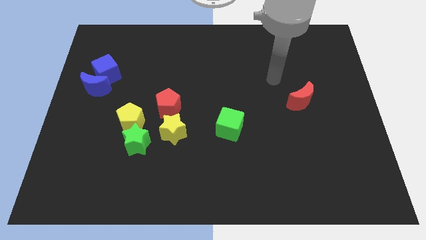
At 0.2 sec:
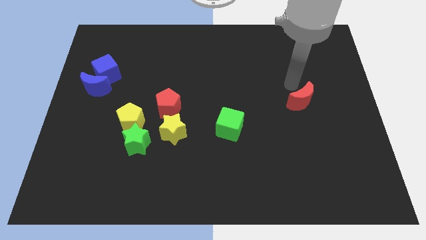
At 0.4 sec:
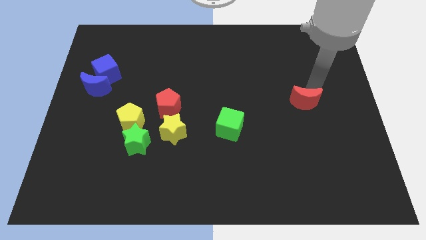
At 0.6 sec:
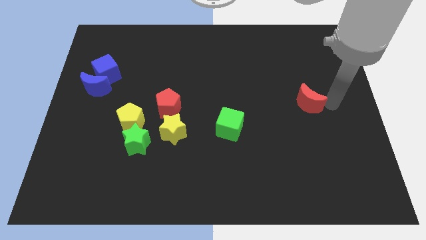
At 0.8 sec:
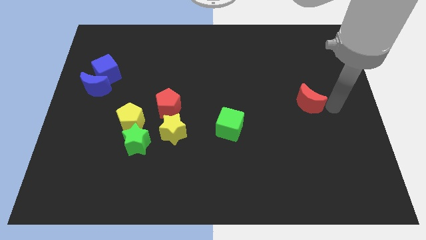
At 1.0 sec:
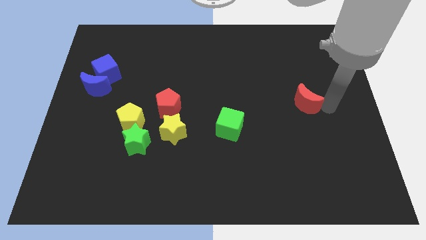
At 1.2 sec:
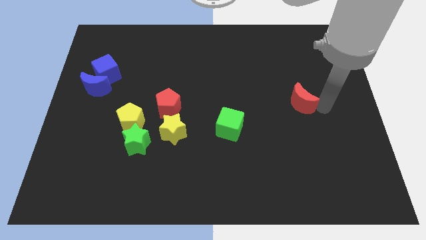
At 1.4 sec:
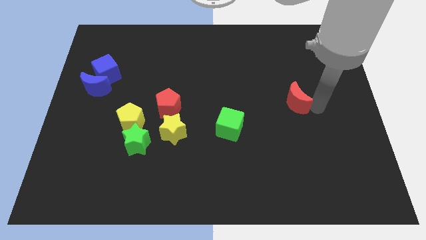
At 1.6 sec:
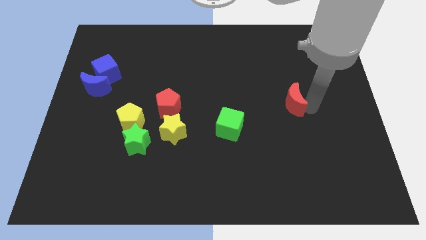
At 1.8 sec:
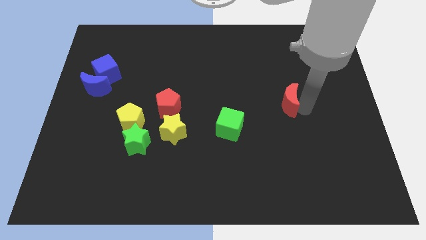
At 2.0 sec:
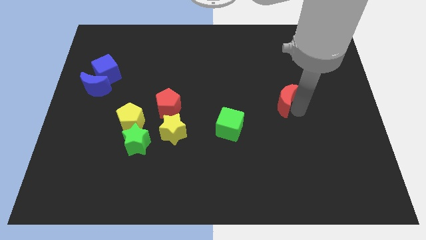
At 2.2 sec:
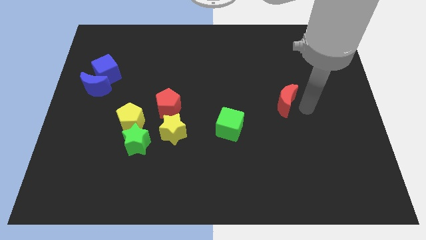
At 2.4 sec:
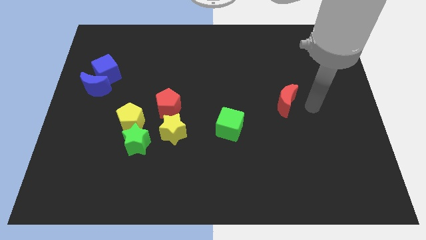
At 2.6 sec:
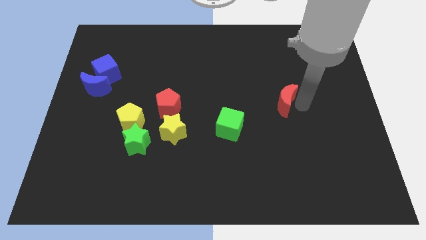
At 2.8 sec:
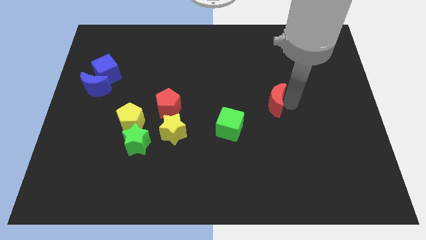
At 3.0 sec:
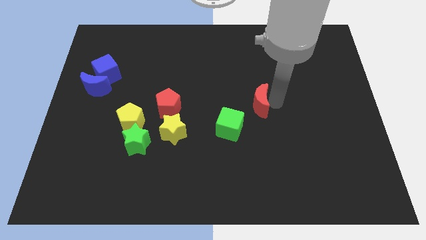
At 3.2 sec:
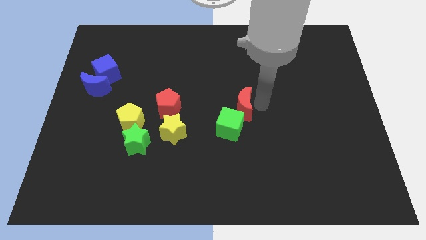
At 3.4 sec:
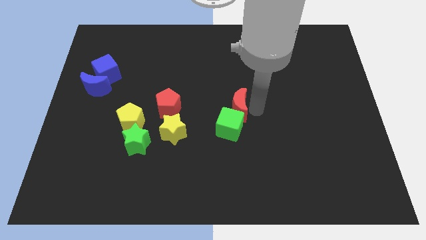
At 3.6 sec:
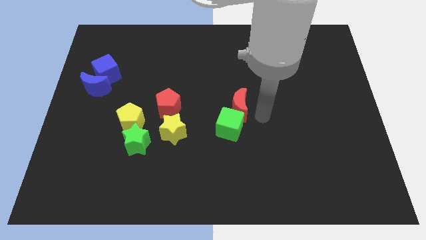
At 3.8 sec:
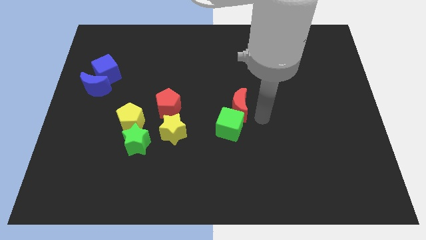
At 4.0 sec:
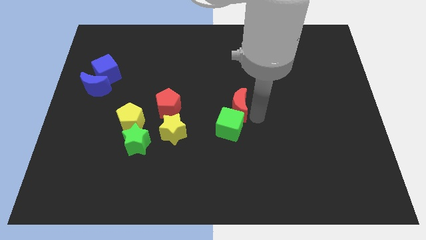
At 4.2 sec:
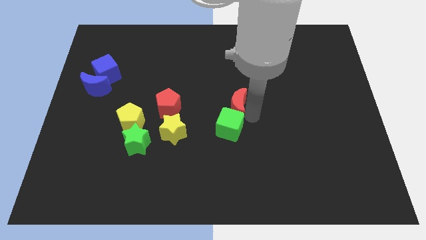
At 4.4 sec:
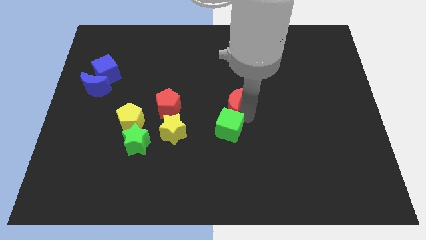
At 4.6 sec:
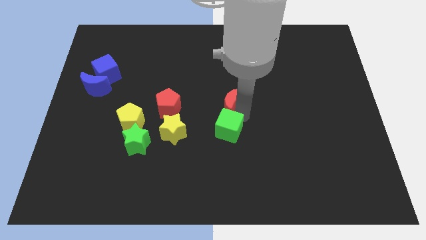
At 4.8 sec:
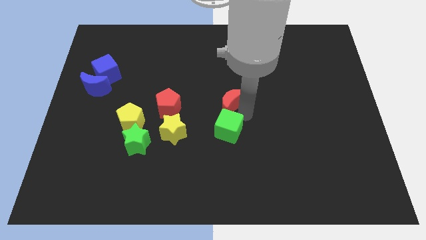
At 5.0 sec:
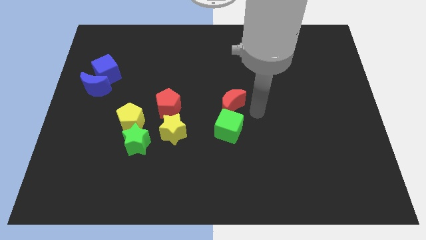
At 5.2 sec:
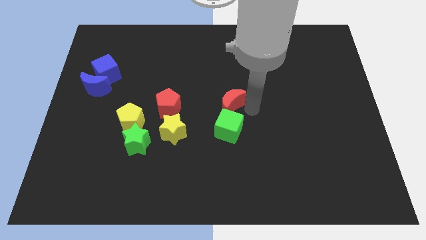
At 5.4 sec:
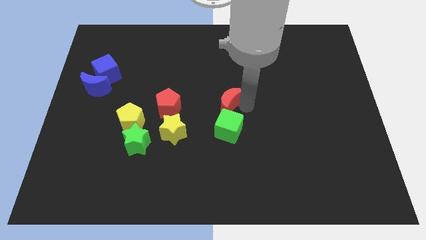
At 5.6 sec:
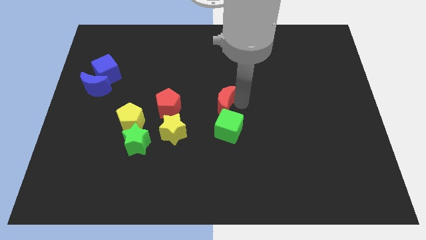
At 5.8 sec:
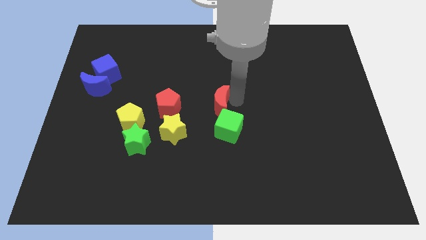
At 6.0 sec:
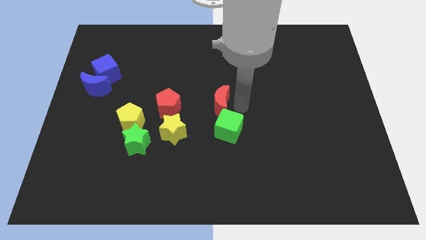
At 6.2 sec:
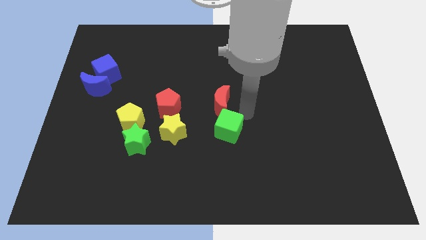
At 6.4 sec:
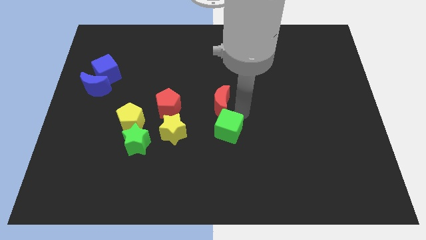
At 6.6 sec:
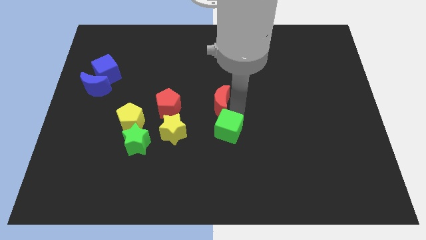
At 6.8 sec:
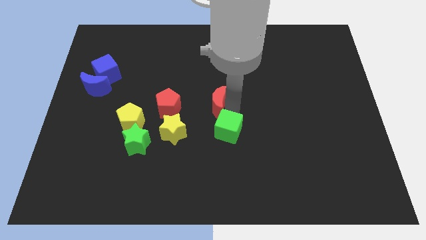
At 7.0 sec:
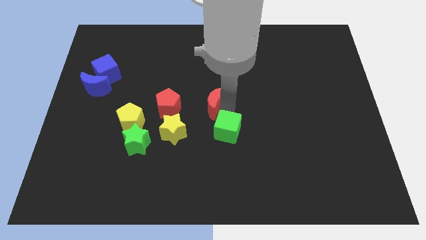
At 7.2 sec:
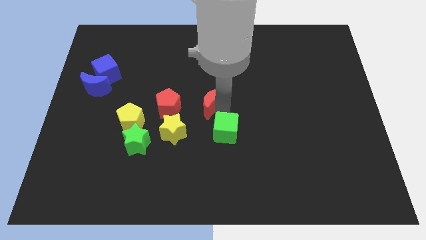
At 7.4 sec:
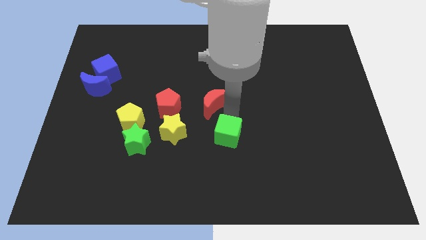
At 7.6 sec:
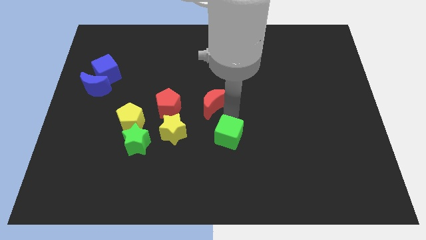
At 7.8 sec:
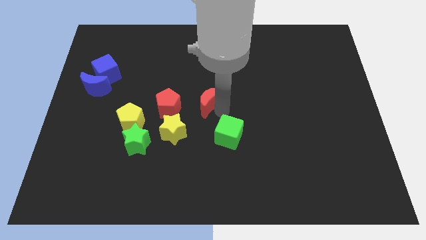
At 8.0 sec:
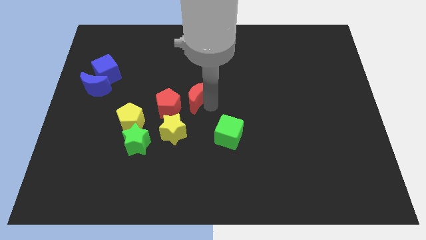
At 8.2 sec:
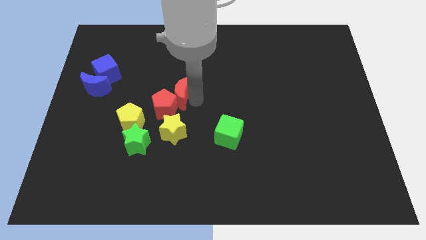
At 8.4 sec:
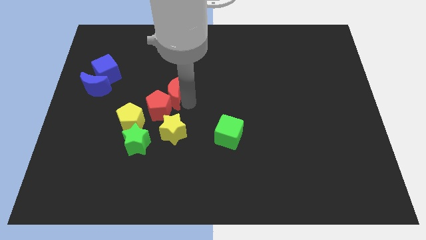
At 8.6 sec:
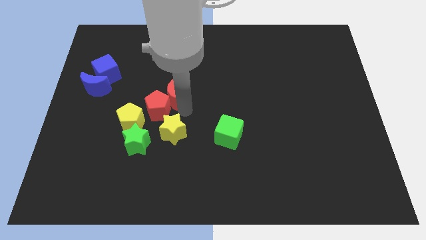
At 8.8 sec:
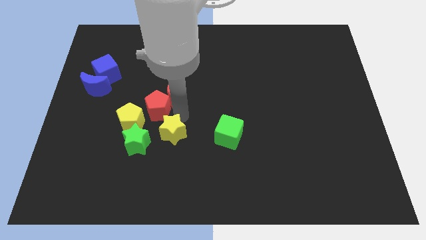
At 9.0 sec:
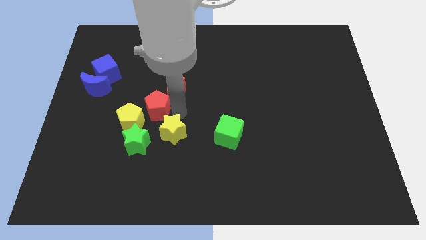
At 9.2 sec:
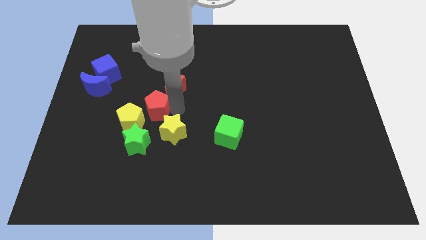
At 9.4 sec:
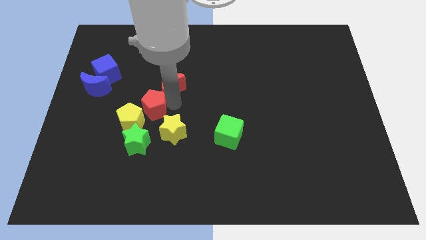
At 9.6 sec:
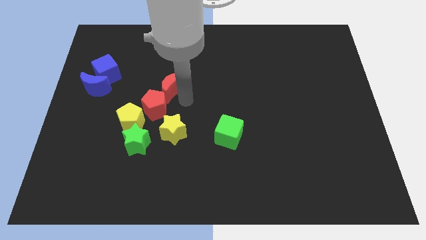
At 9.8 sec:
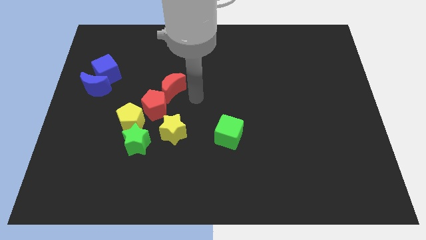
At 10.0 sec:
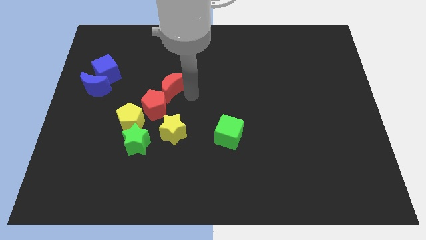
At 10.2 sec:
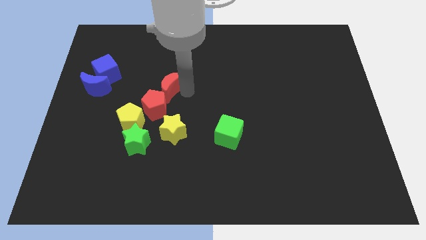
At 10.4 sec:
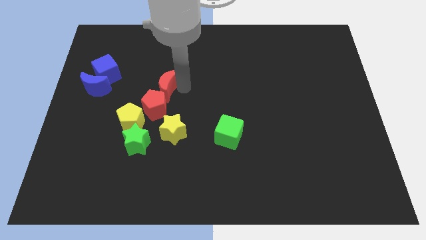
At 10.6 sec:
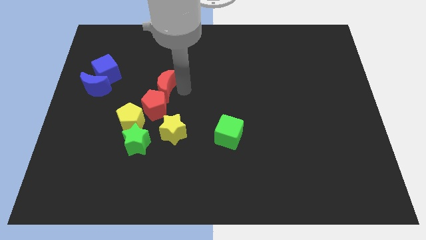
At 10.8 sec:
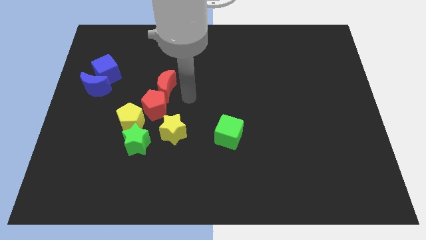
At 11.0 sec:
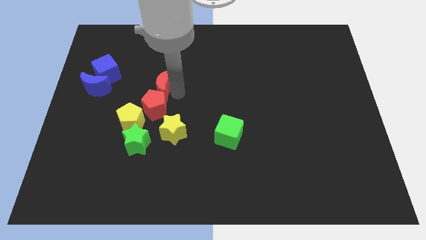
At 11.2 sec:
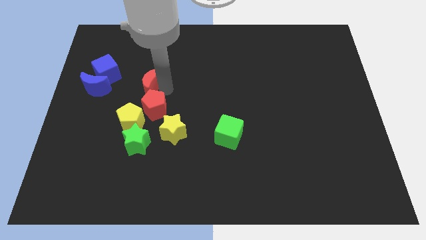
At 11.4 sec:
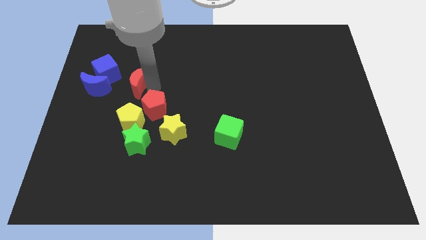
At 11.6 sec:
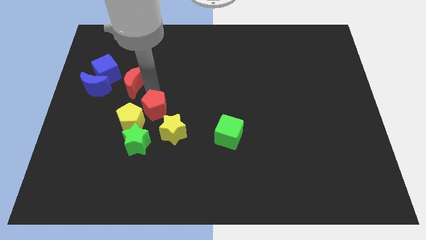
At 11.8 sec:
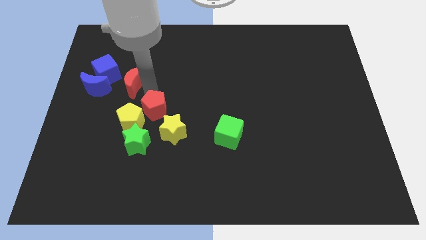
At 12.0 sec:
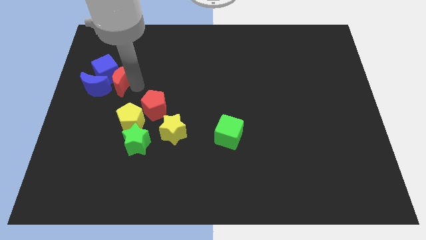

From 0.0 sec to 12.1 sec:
put the red moon close to the blue cube

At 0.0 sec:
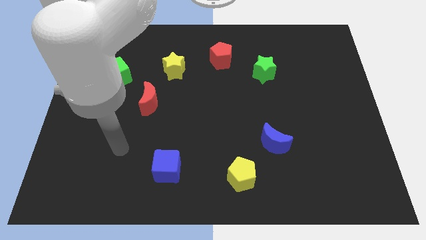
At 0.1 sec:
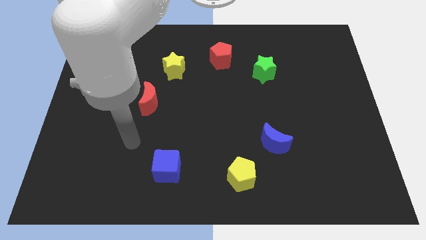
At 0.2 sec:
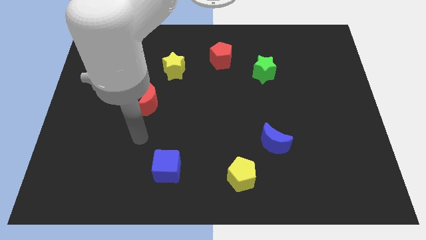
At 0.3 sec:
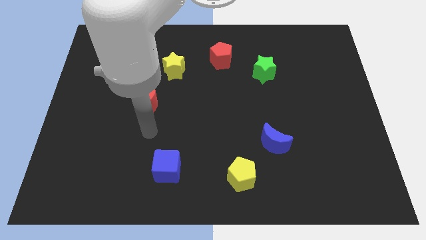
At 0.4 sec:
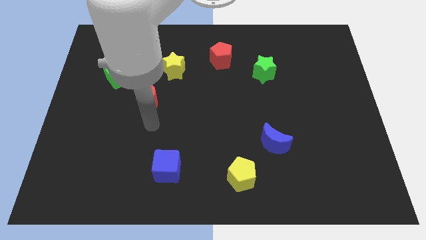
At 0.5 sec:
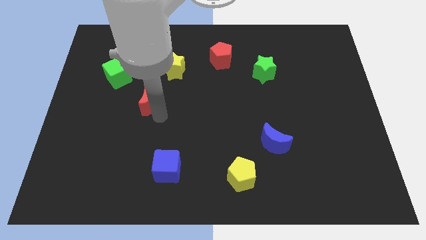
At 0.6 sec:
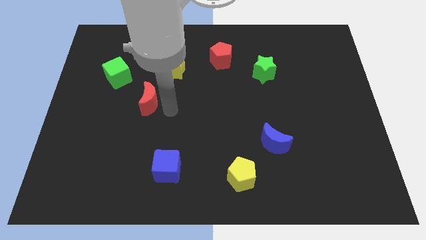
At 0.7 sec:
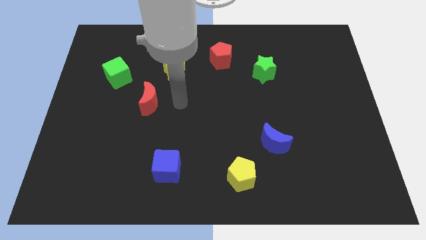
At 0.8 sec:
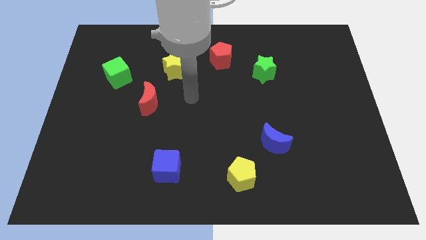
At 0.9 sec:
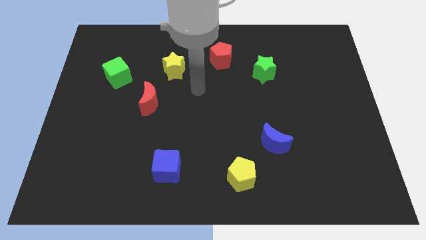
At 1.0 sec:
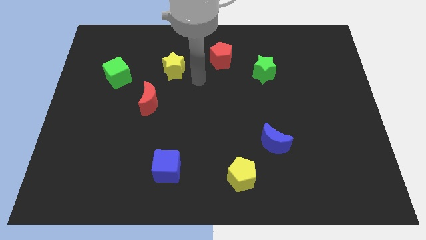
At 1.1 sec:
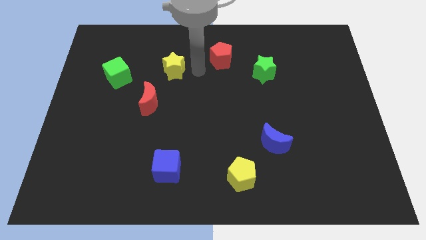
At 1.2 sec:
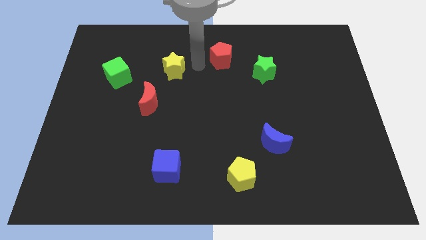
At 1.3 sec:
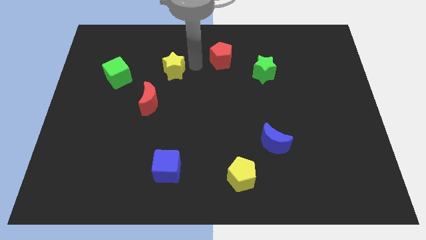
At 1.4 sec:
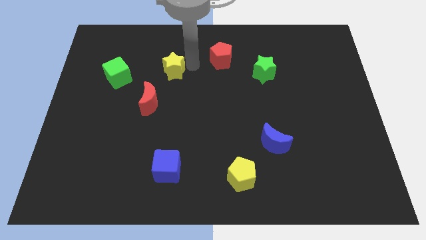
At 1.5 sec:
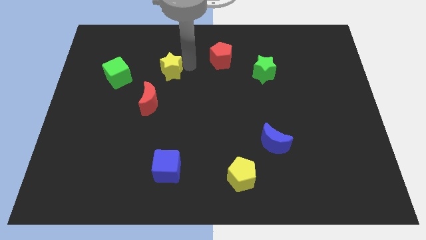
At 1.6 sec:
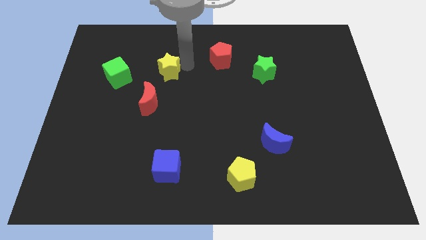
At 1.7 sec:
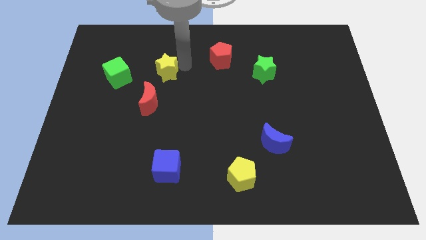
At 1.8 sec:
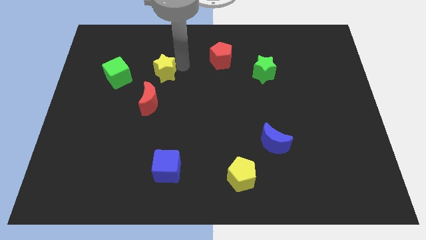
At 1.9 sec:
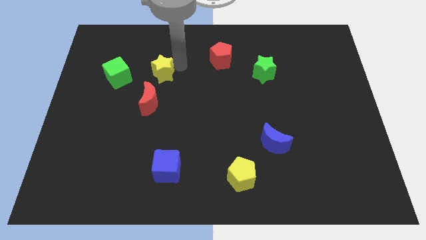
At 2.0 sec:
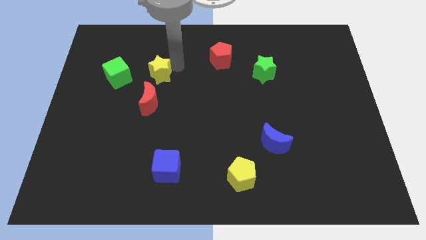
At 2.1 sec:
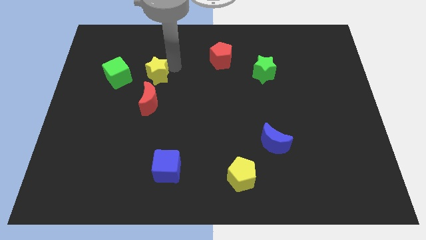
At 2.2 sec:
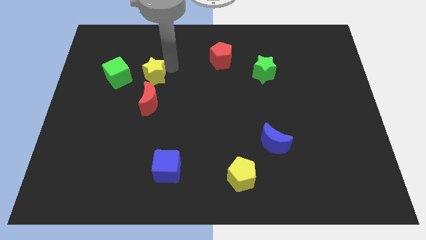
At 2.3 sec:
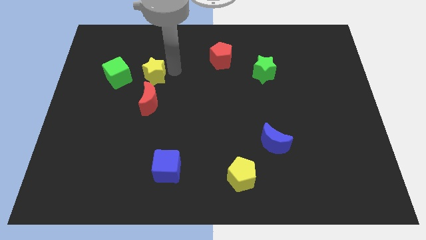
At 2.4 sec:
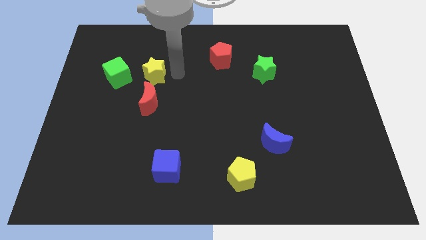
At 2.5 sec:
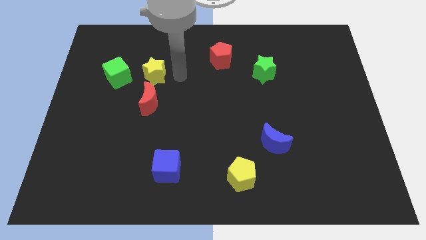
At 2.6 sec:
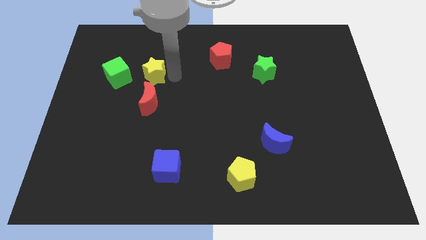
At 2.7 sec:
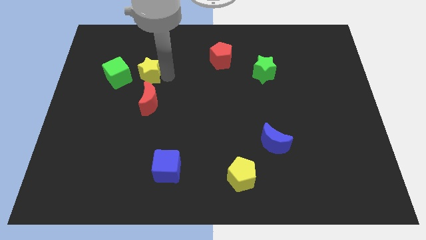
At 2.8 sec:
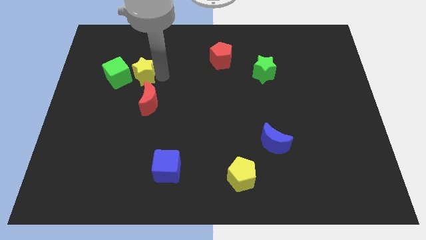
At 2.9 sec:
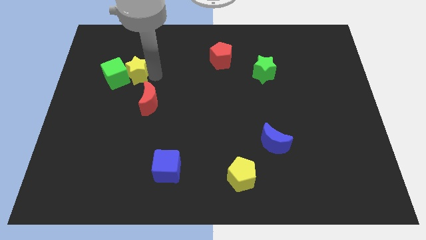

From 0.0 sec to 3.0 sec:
slide the yellow star next to the green cube
